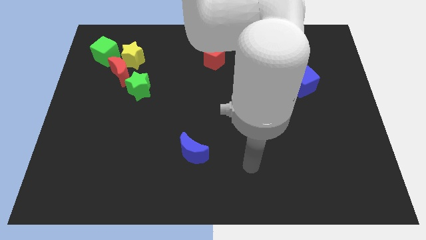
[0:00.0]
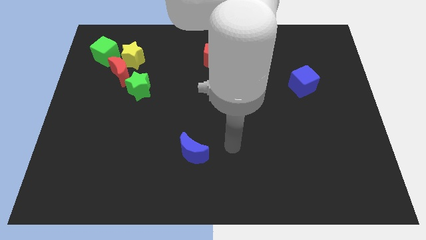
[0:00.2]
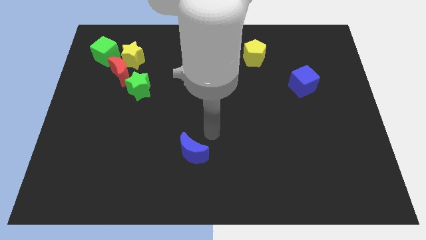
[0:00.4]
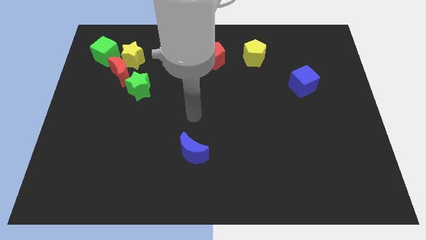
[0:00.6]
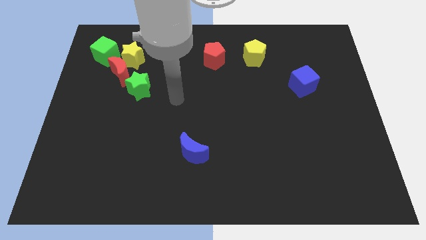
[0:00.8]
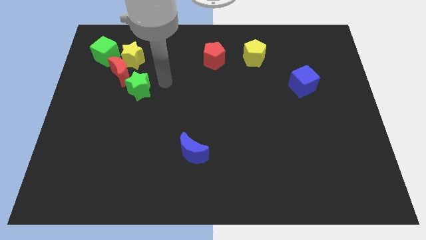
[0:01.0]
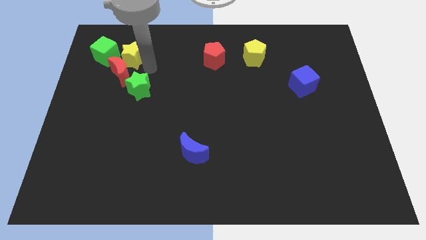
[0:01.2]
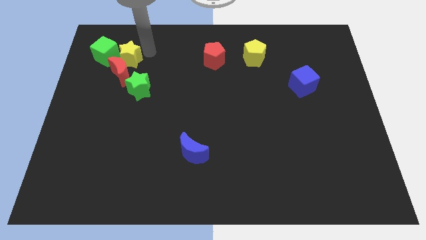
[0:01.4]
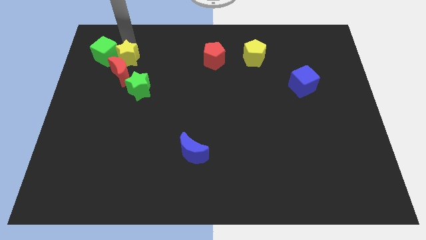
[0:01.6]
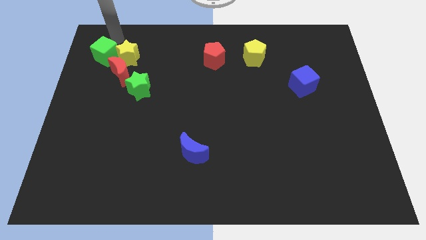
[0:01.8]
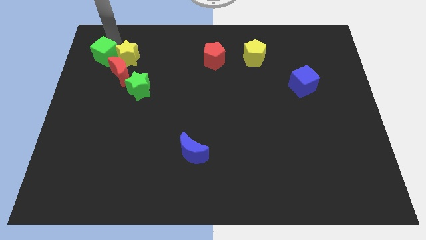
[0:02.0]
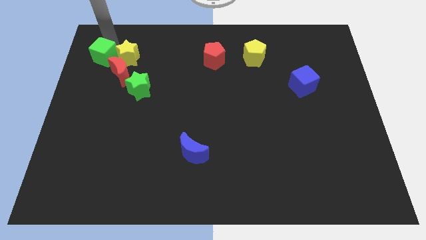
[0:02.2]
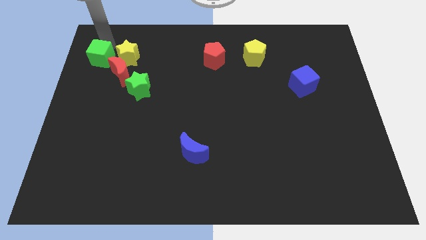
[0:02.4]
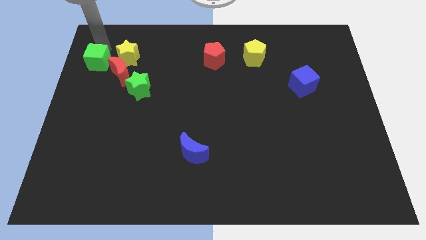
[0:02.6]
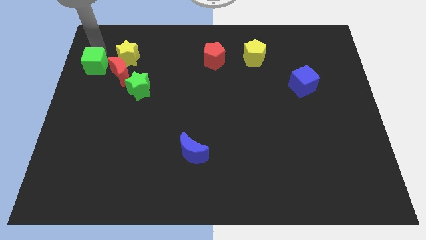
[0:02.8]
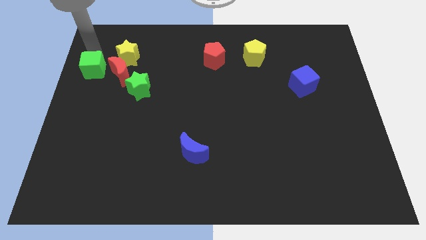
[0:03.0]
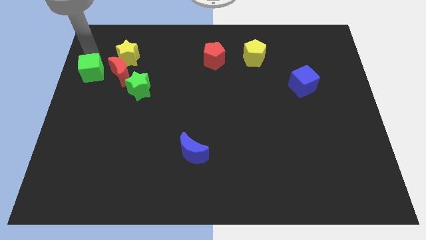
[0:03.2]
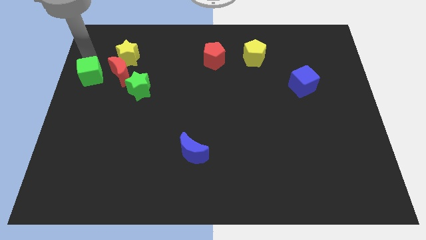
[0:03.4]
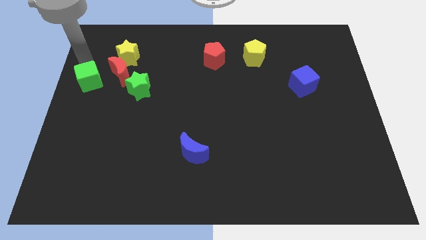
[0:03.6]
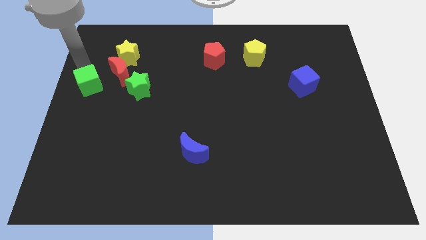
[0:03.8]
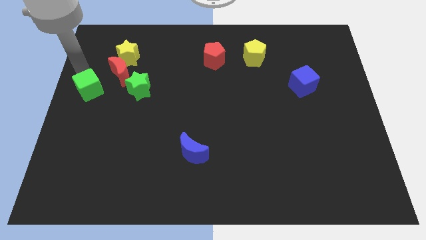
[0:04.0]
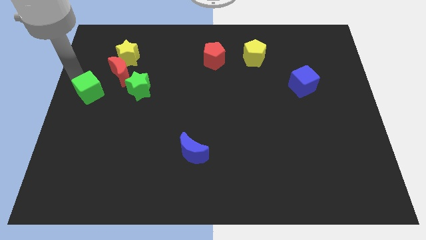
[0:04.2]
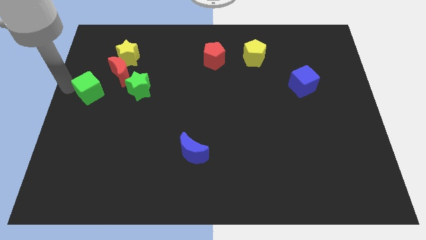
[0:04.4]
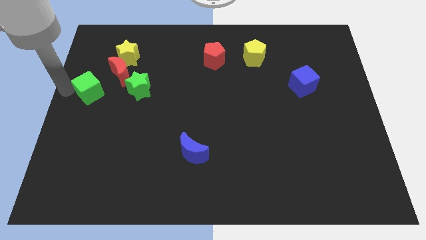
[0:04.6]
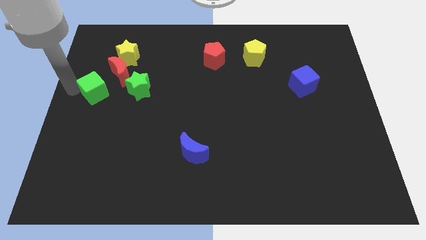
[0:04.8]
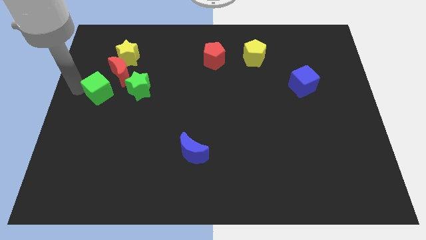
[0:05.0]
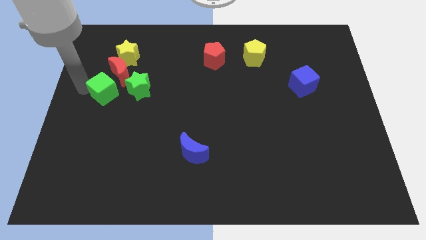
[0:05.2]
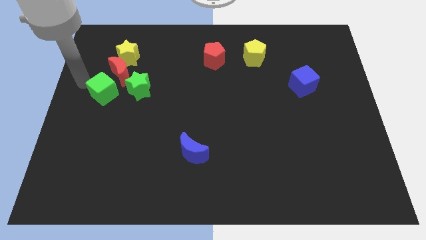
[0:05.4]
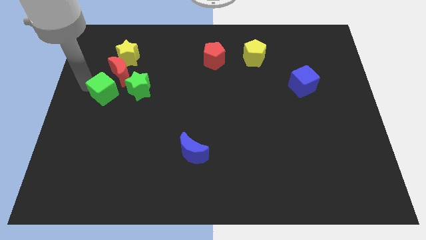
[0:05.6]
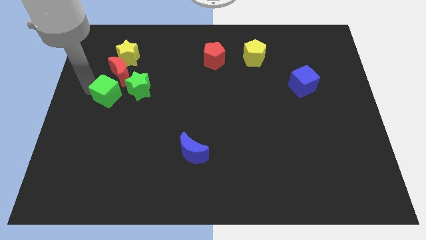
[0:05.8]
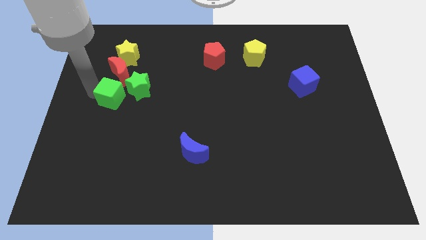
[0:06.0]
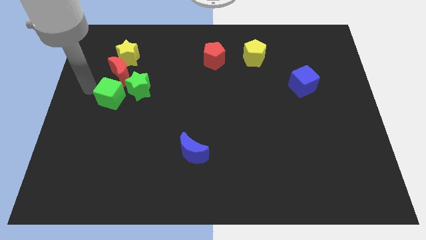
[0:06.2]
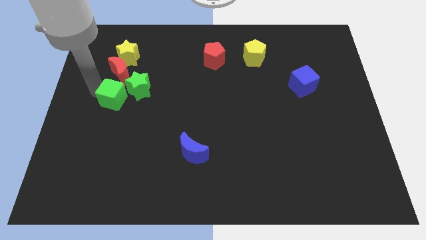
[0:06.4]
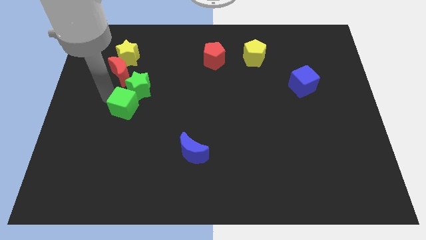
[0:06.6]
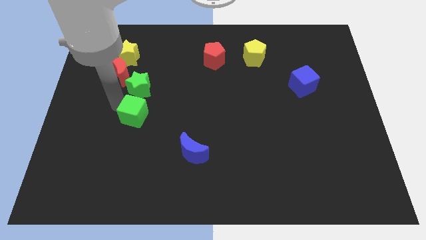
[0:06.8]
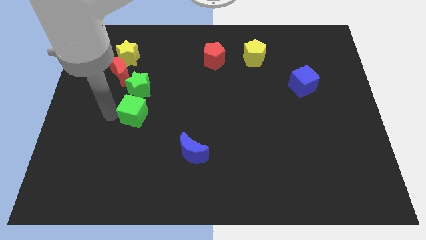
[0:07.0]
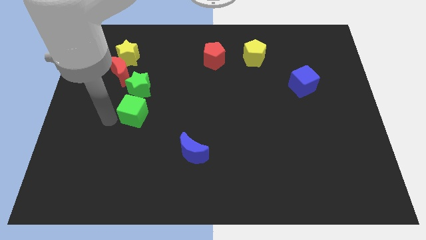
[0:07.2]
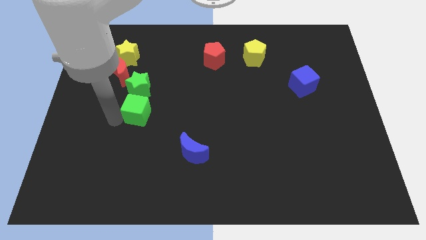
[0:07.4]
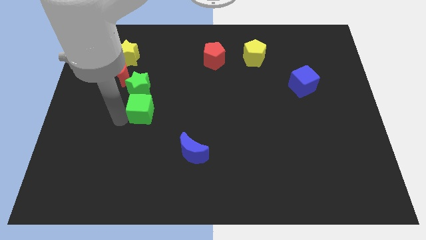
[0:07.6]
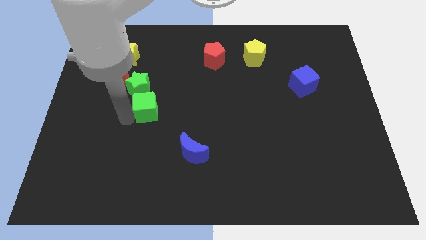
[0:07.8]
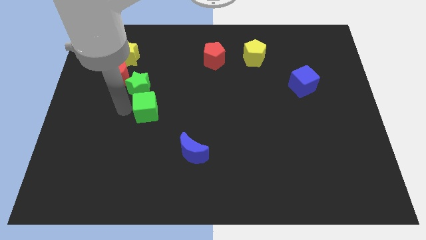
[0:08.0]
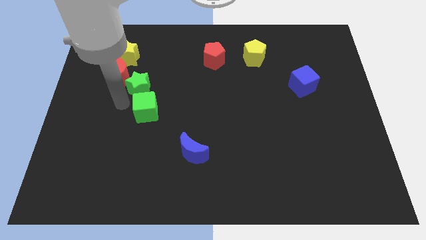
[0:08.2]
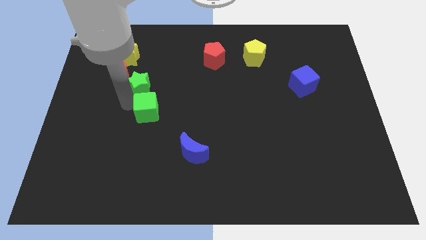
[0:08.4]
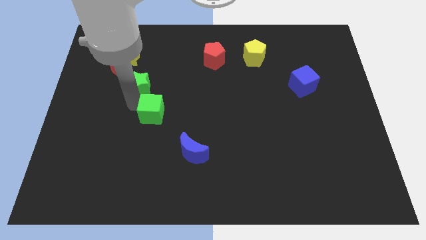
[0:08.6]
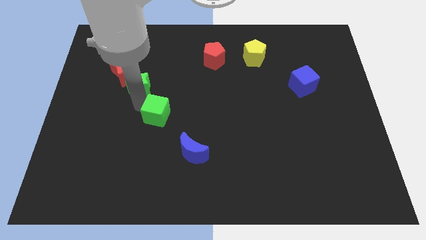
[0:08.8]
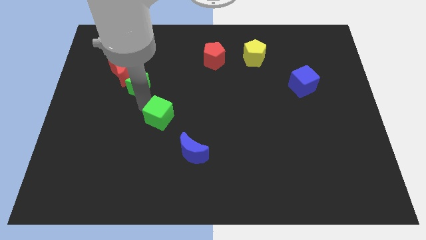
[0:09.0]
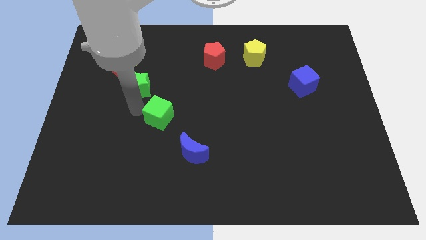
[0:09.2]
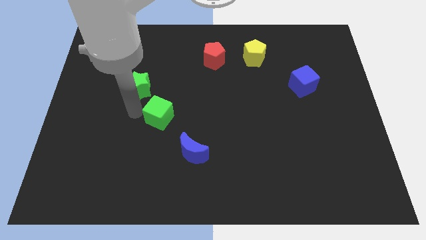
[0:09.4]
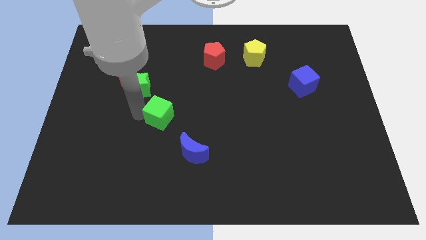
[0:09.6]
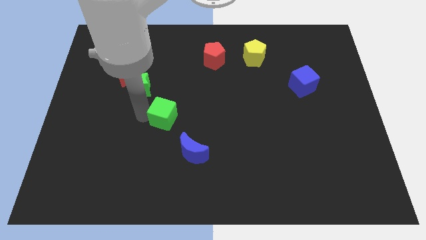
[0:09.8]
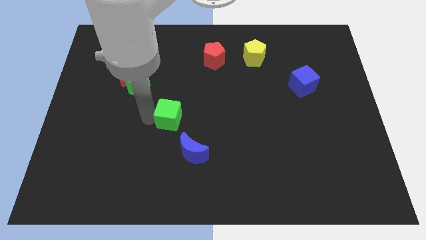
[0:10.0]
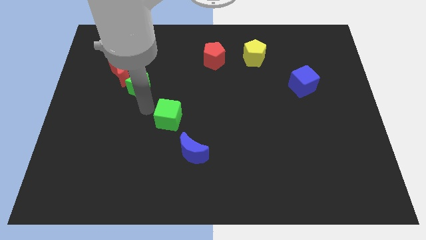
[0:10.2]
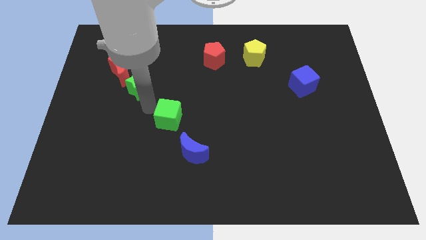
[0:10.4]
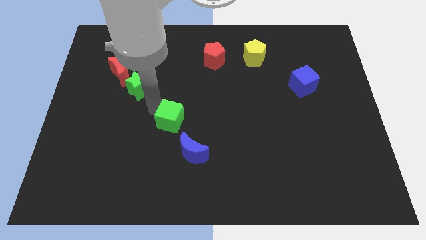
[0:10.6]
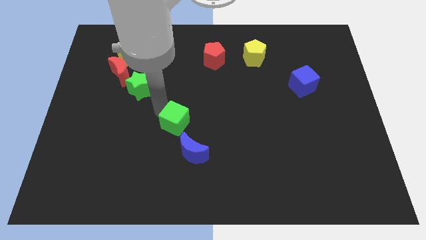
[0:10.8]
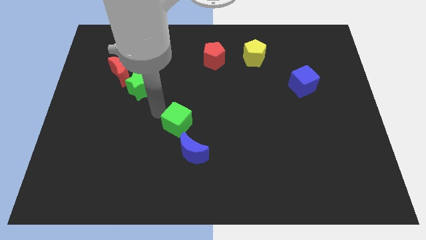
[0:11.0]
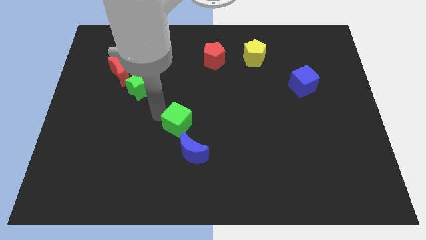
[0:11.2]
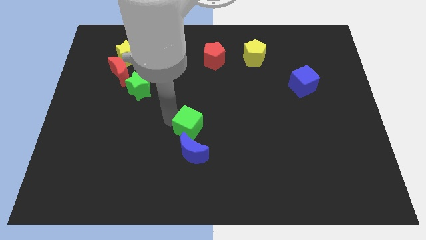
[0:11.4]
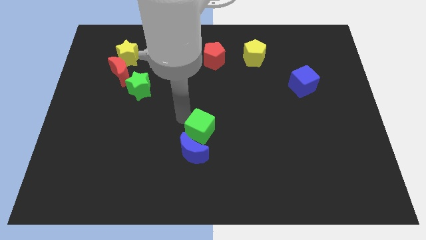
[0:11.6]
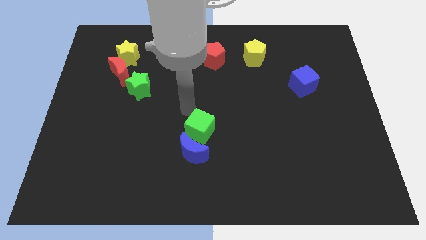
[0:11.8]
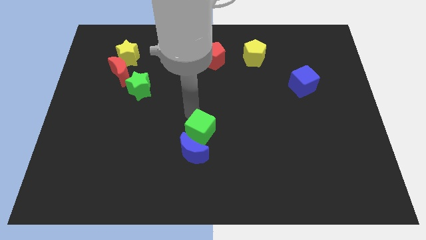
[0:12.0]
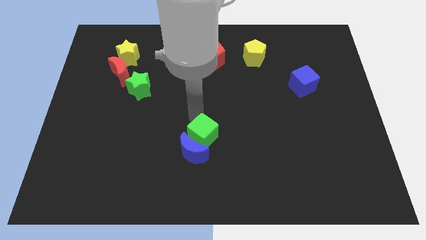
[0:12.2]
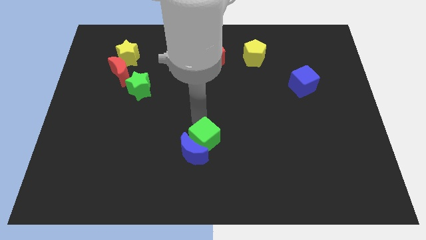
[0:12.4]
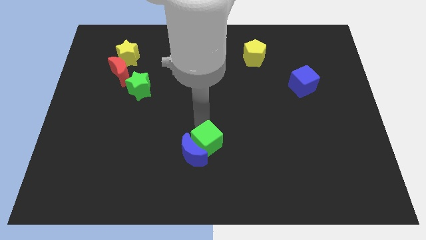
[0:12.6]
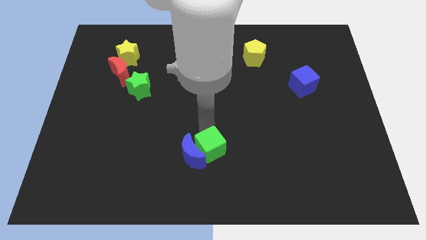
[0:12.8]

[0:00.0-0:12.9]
put the green cube diagonally down and to the right of the blue moon

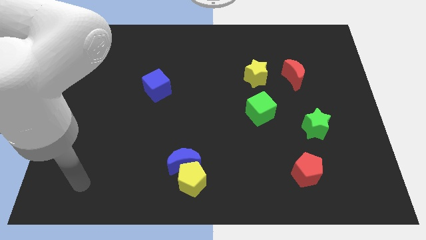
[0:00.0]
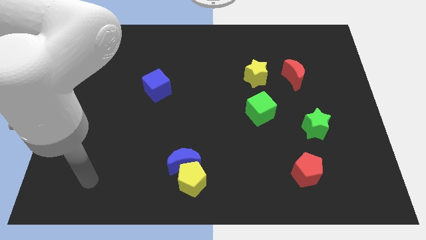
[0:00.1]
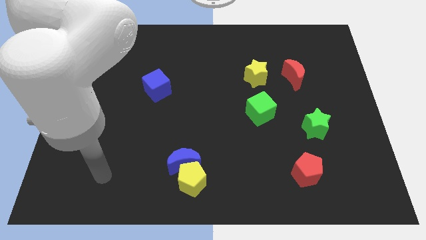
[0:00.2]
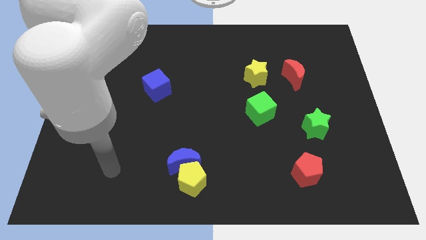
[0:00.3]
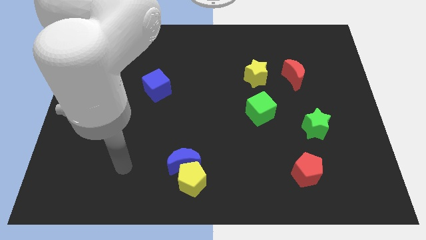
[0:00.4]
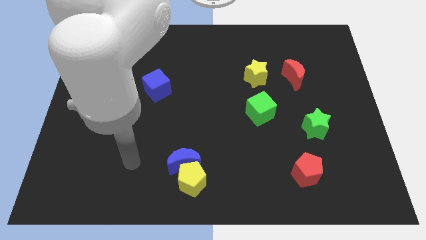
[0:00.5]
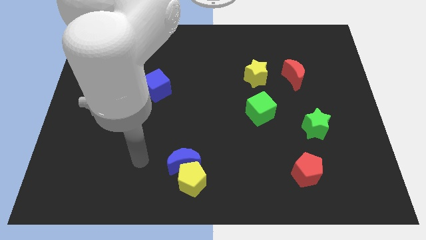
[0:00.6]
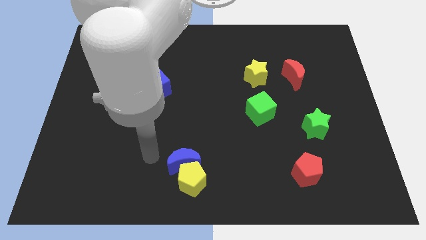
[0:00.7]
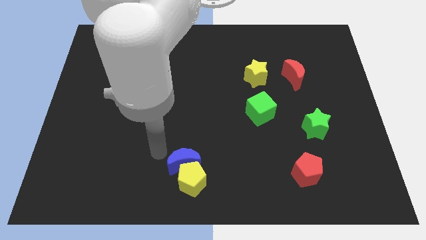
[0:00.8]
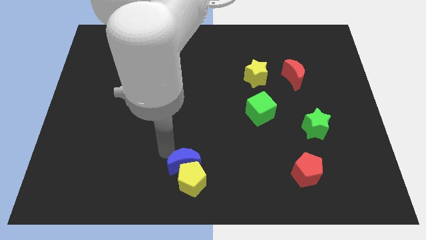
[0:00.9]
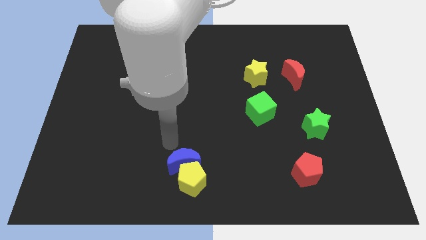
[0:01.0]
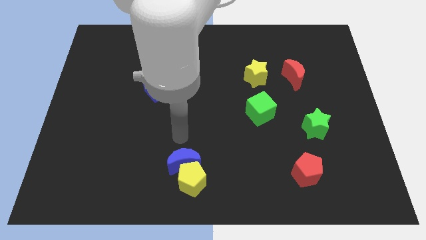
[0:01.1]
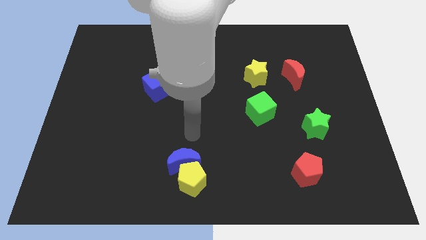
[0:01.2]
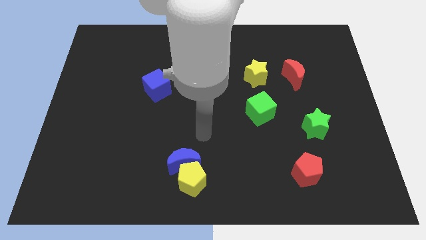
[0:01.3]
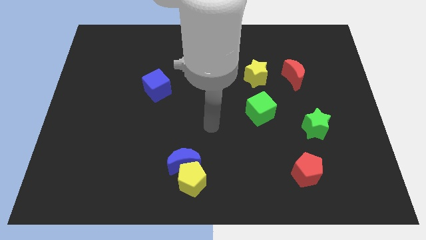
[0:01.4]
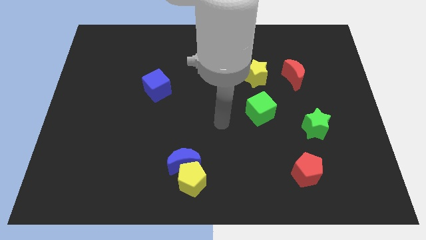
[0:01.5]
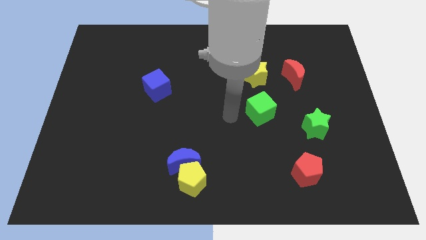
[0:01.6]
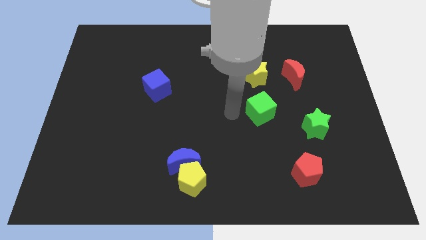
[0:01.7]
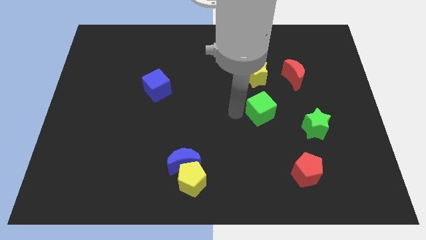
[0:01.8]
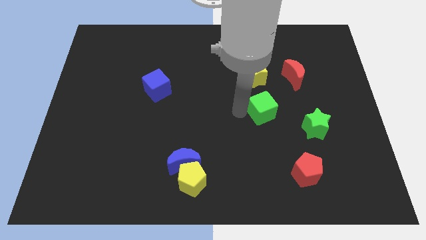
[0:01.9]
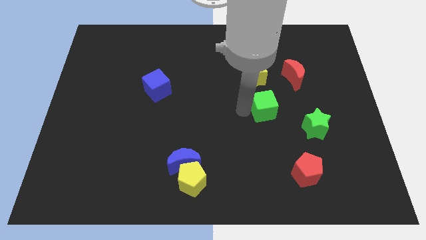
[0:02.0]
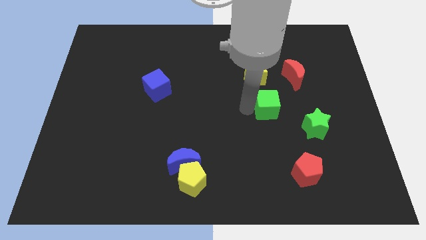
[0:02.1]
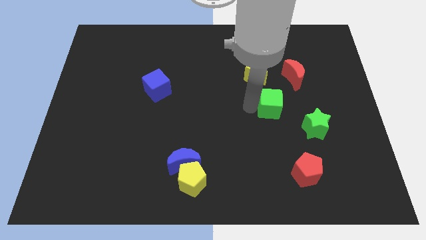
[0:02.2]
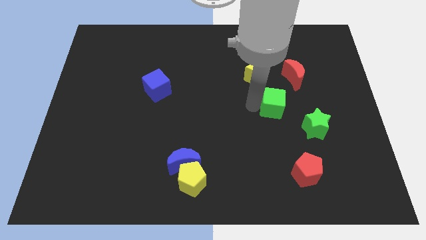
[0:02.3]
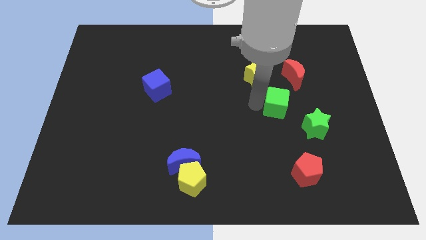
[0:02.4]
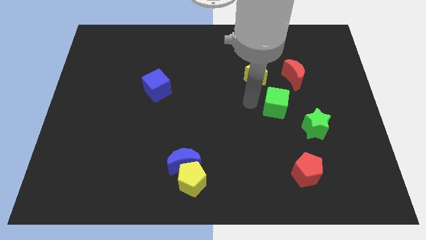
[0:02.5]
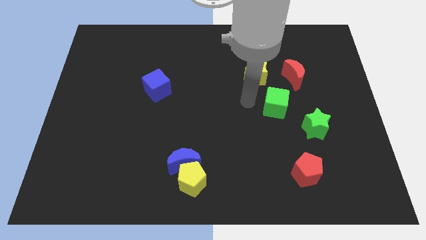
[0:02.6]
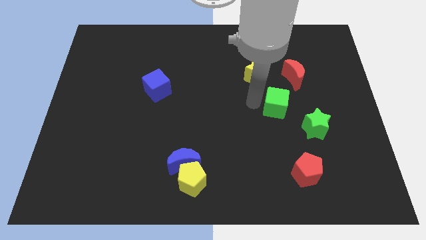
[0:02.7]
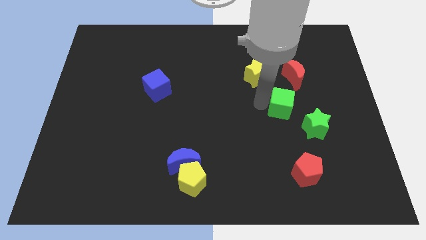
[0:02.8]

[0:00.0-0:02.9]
push the green cube to the bottom side of the red moon
